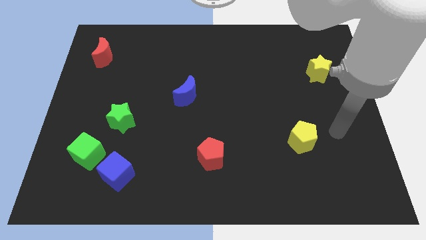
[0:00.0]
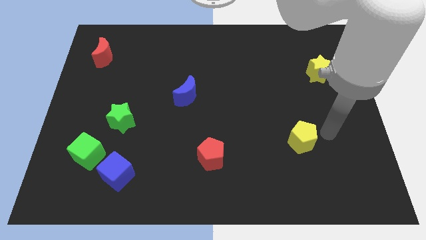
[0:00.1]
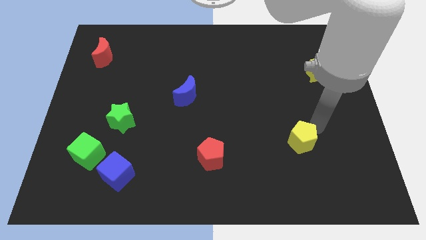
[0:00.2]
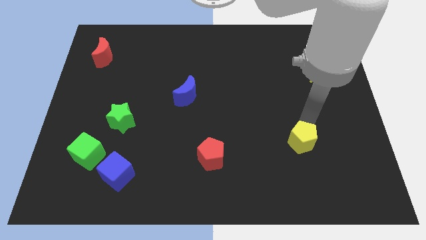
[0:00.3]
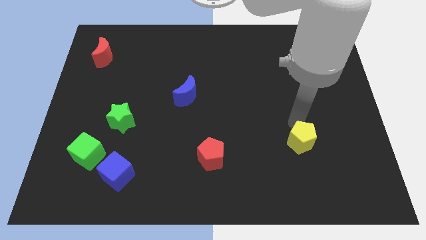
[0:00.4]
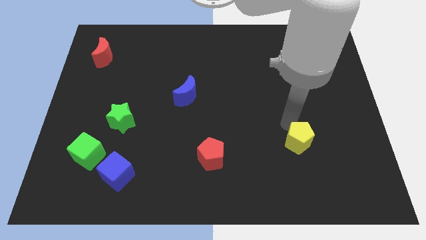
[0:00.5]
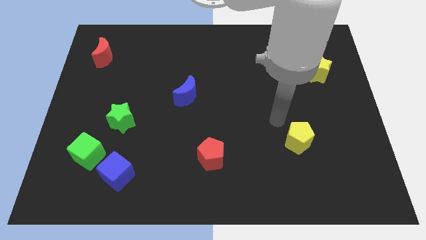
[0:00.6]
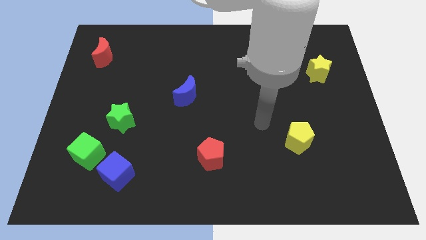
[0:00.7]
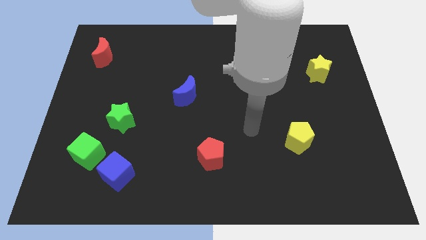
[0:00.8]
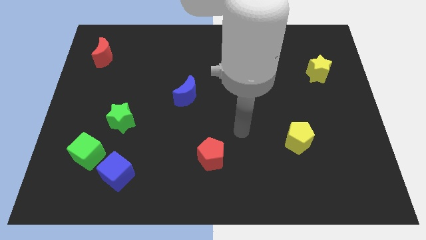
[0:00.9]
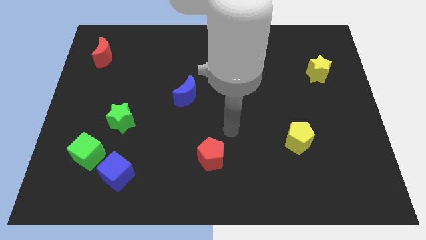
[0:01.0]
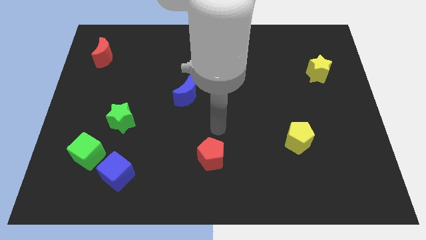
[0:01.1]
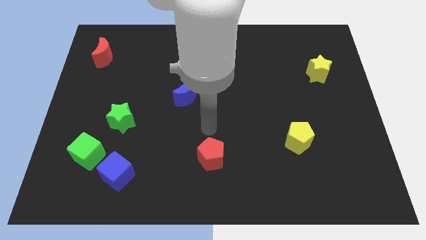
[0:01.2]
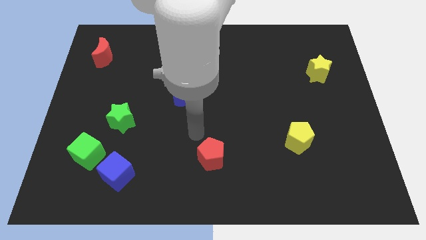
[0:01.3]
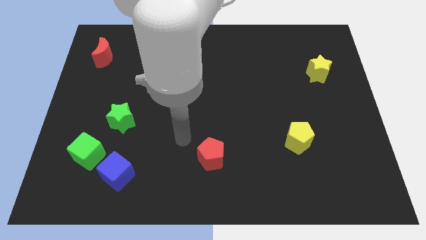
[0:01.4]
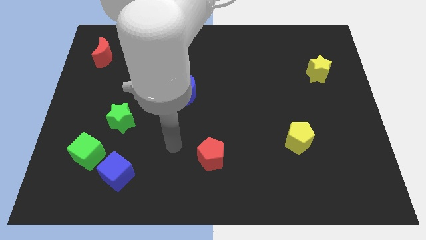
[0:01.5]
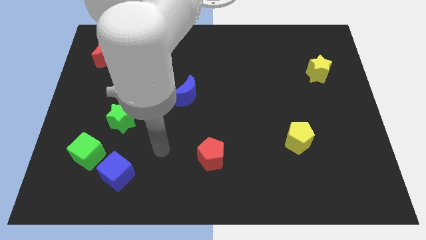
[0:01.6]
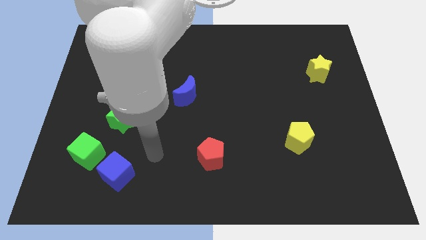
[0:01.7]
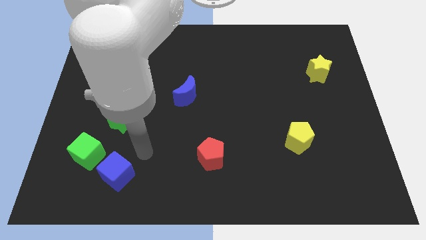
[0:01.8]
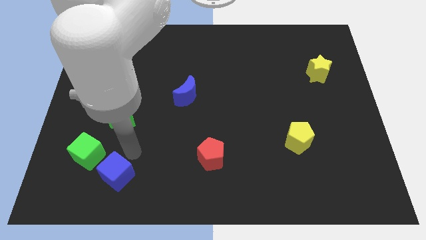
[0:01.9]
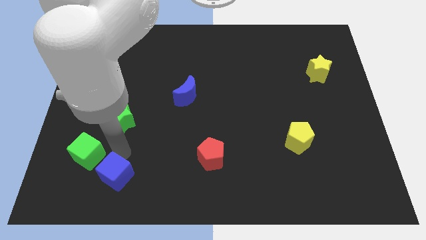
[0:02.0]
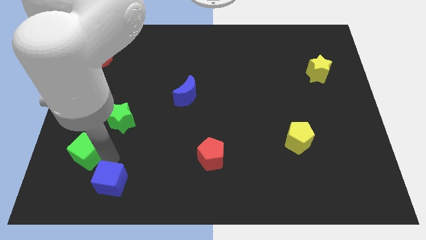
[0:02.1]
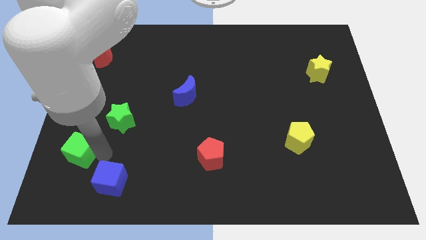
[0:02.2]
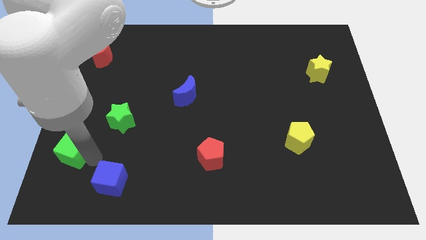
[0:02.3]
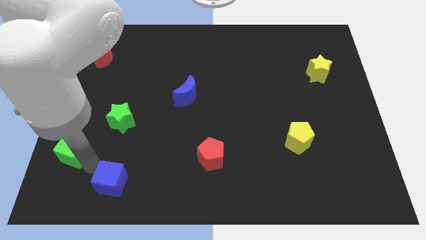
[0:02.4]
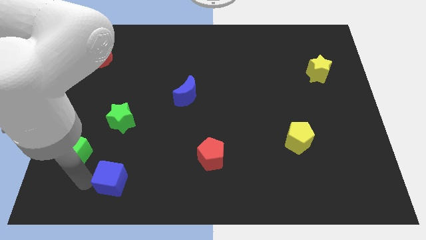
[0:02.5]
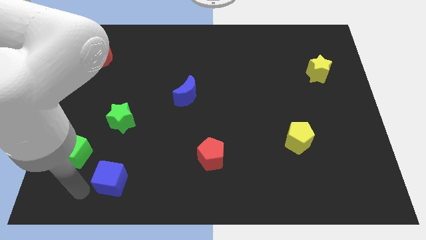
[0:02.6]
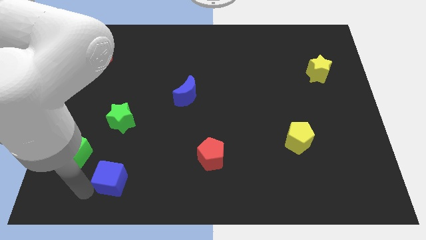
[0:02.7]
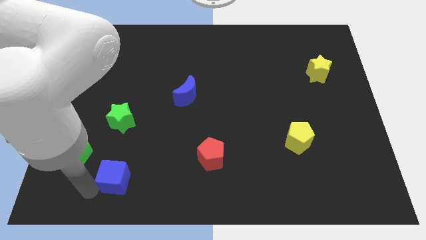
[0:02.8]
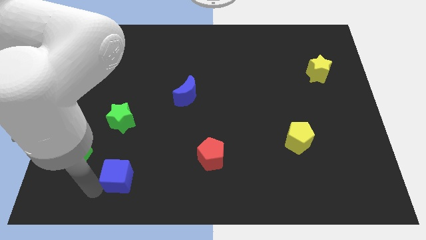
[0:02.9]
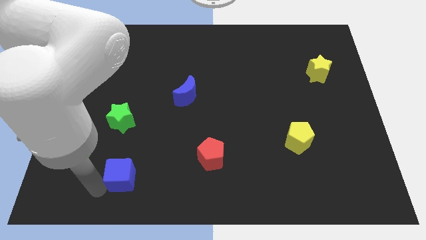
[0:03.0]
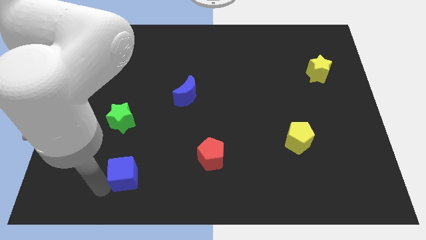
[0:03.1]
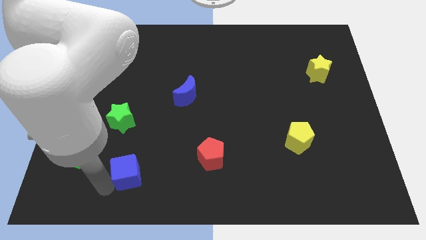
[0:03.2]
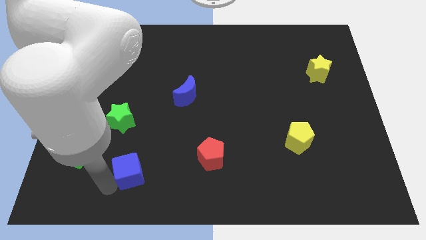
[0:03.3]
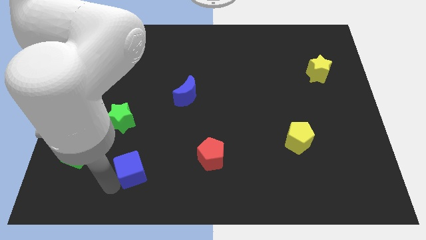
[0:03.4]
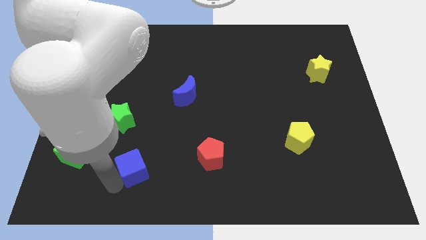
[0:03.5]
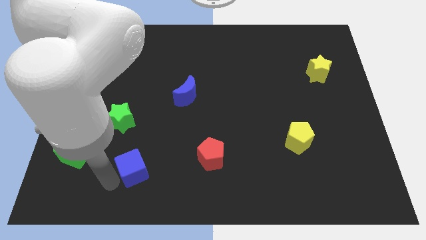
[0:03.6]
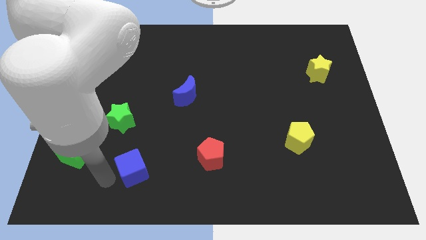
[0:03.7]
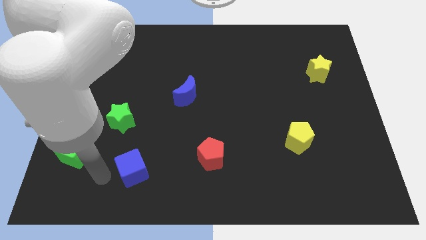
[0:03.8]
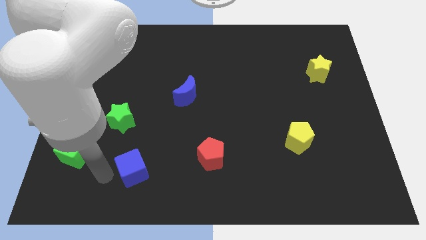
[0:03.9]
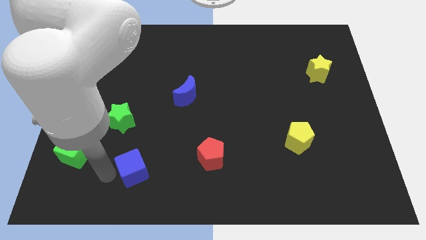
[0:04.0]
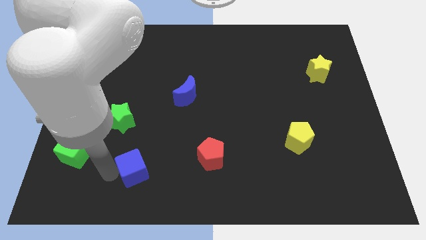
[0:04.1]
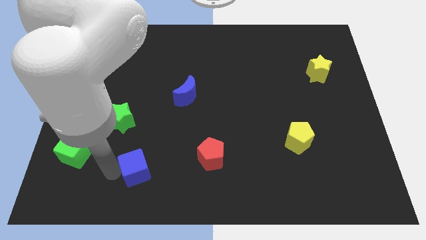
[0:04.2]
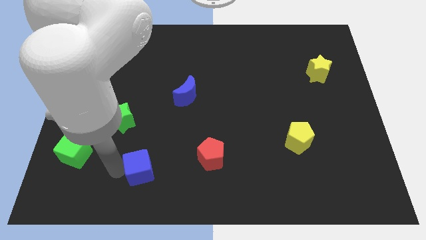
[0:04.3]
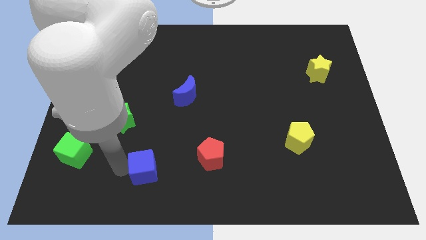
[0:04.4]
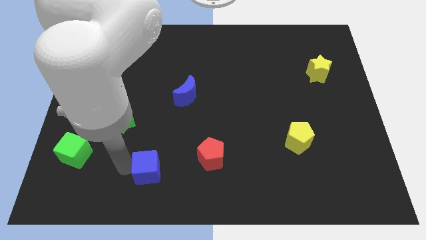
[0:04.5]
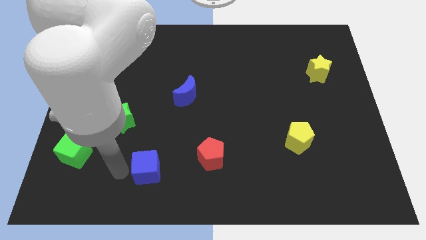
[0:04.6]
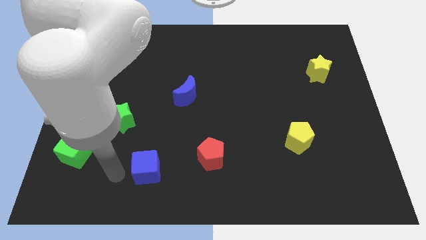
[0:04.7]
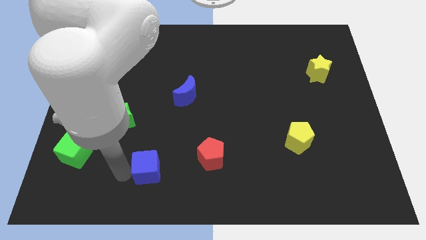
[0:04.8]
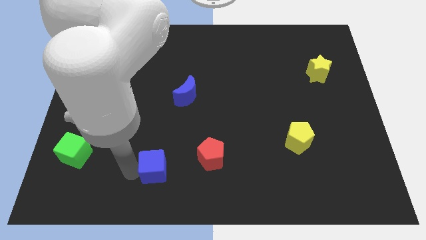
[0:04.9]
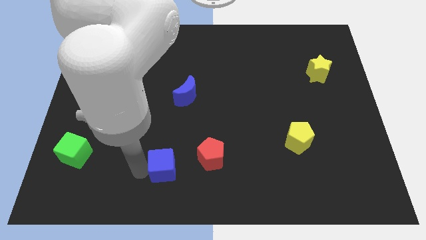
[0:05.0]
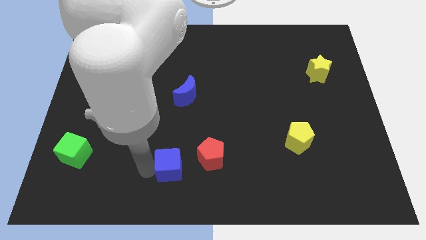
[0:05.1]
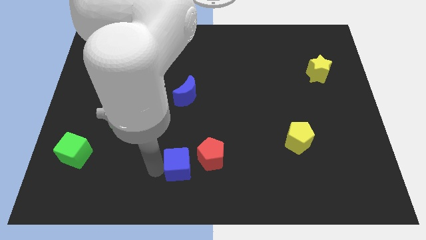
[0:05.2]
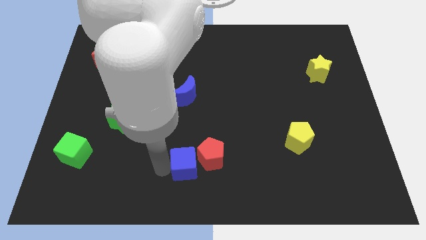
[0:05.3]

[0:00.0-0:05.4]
put the blue cube close to the red pentagon

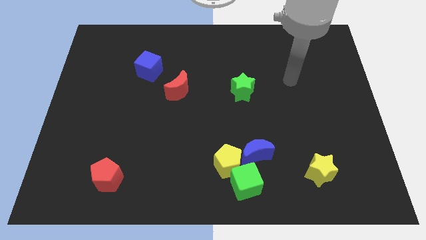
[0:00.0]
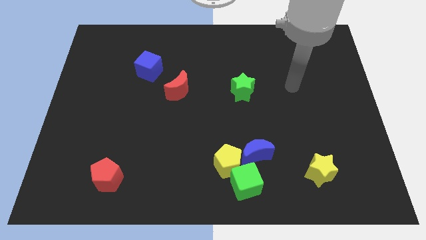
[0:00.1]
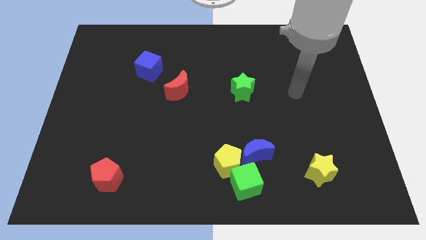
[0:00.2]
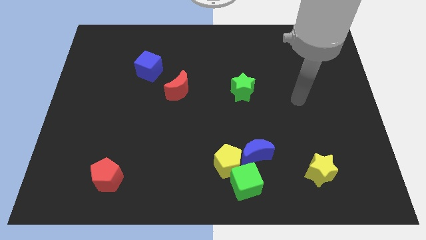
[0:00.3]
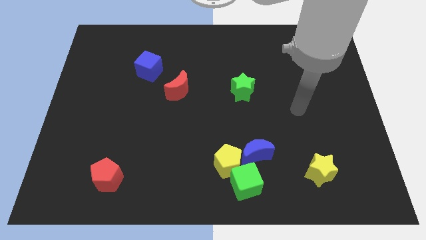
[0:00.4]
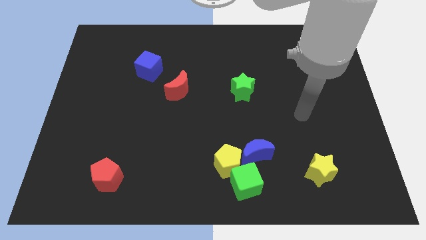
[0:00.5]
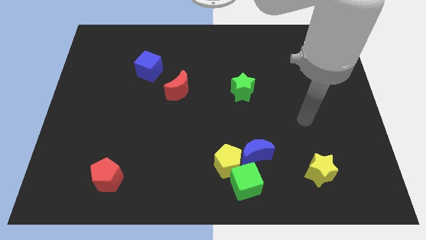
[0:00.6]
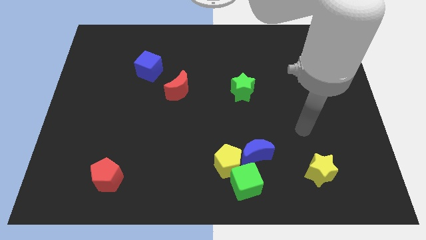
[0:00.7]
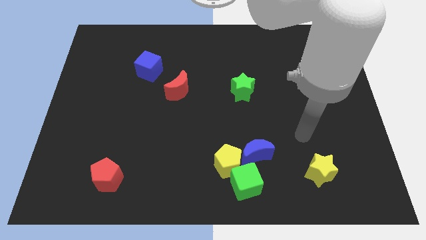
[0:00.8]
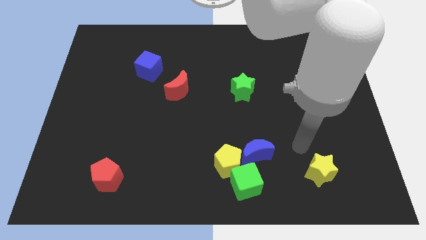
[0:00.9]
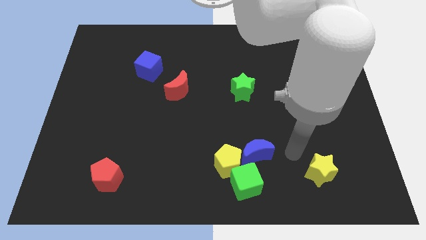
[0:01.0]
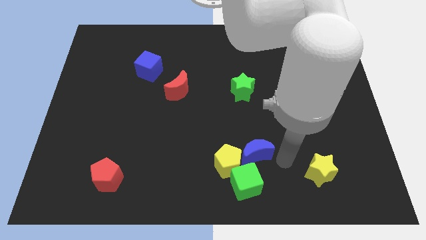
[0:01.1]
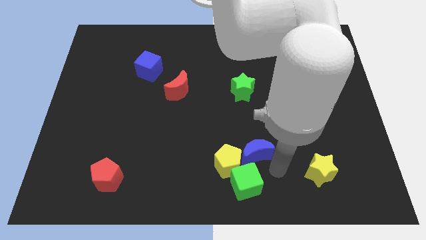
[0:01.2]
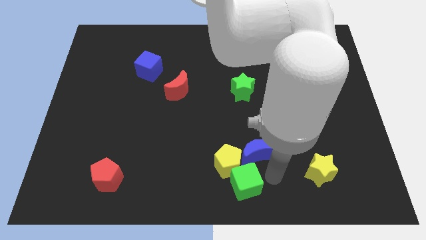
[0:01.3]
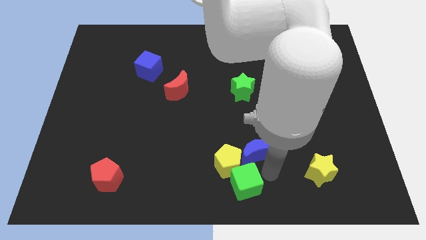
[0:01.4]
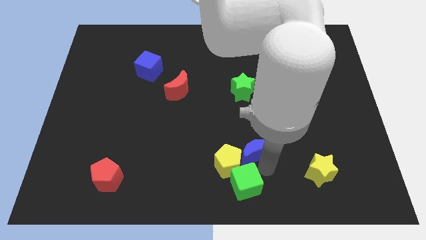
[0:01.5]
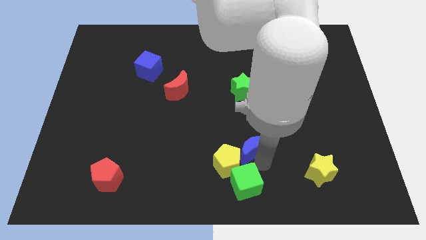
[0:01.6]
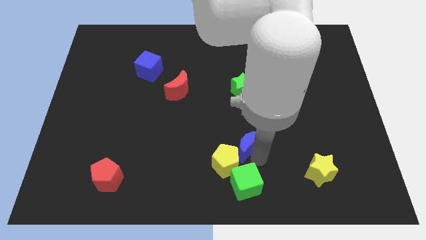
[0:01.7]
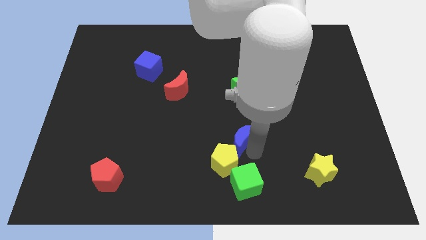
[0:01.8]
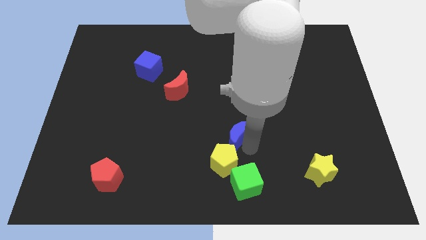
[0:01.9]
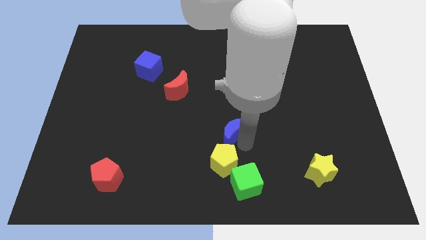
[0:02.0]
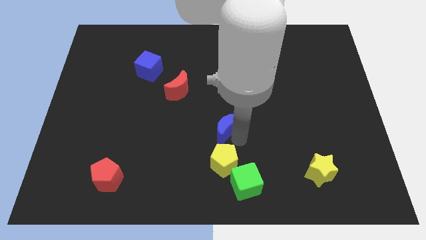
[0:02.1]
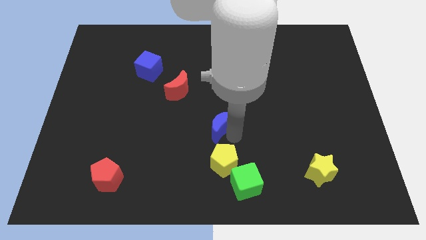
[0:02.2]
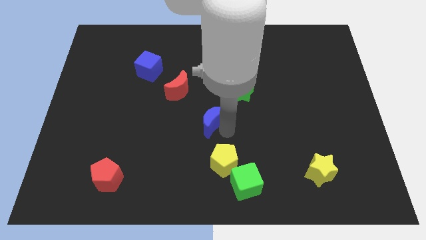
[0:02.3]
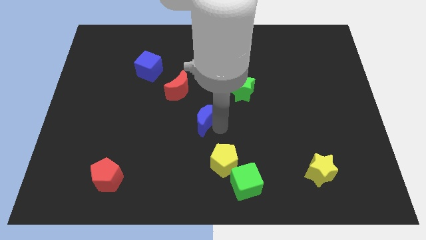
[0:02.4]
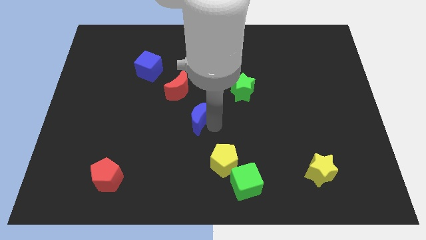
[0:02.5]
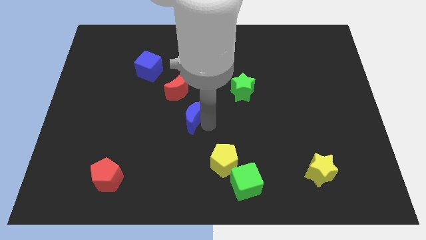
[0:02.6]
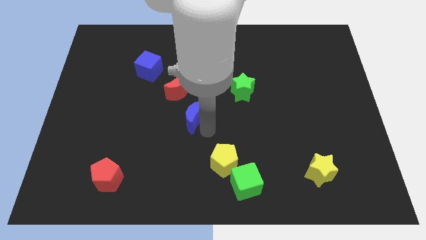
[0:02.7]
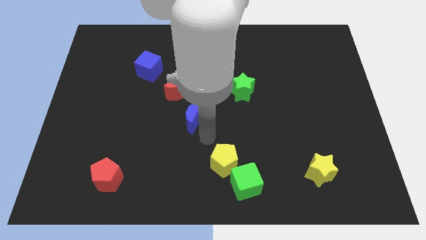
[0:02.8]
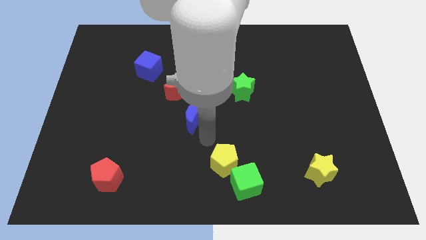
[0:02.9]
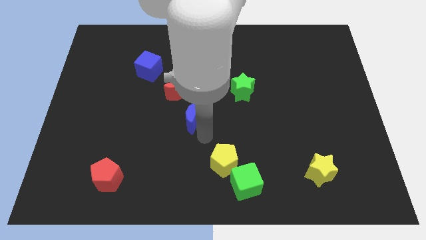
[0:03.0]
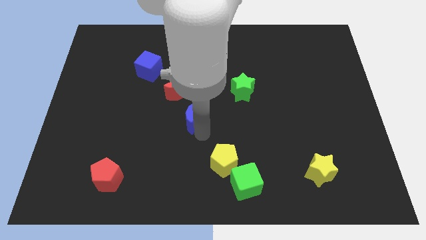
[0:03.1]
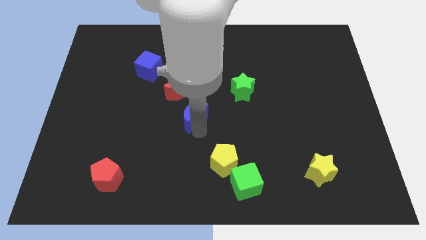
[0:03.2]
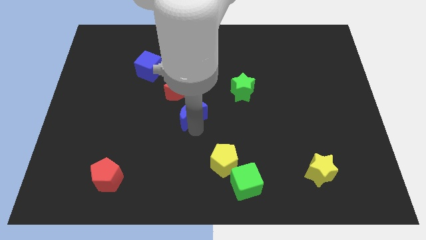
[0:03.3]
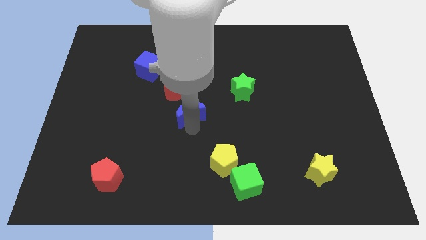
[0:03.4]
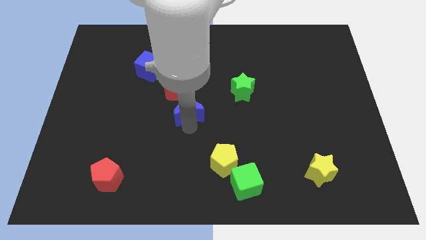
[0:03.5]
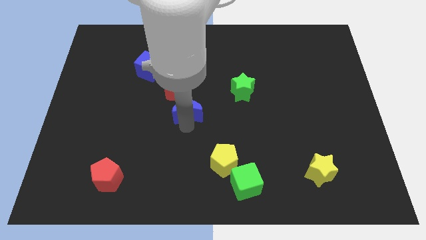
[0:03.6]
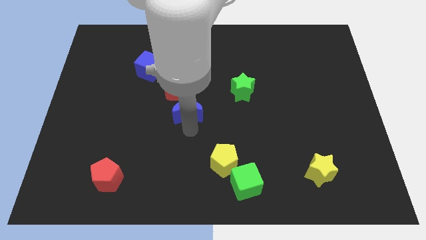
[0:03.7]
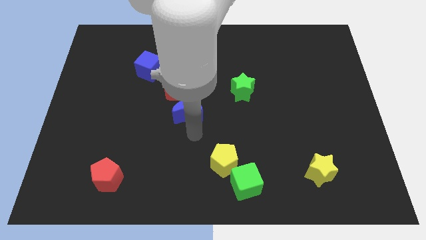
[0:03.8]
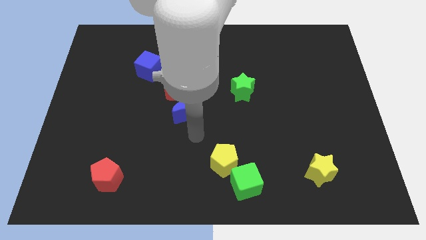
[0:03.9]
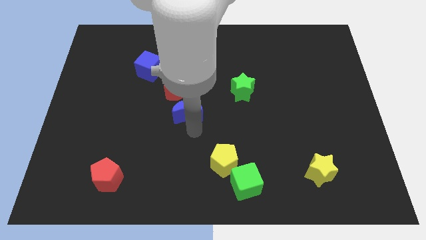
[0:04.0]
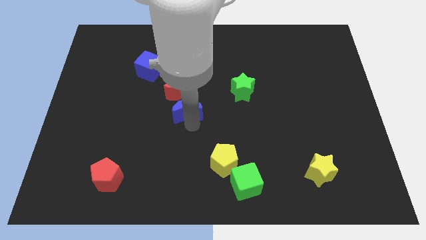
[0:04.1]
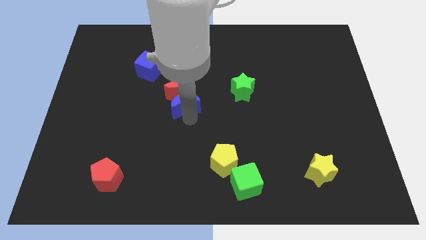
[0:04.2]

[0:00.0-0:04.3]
move the blue moon close to the red moon
